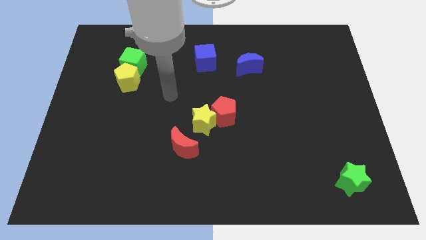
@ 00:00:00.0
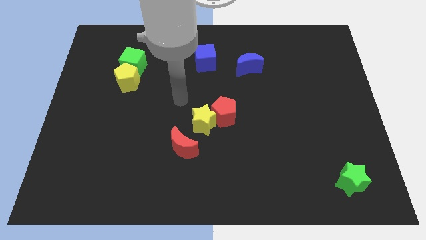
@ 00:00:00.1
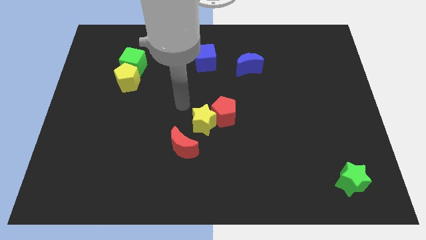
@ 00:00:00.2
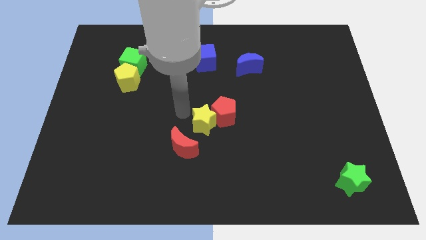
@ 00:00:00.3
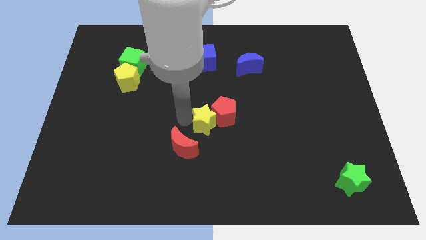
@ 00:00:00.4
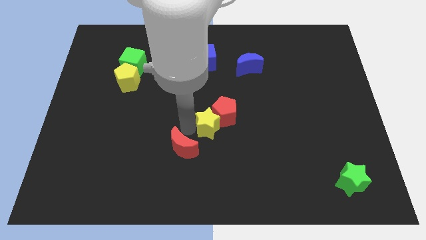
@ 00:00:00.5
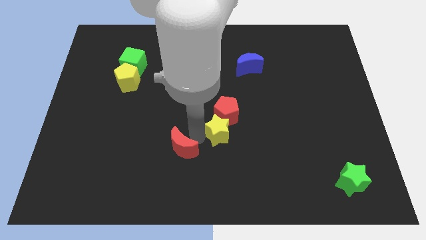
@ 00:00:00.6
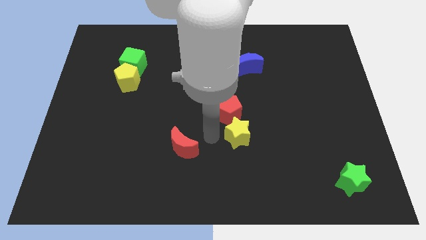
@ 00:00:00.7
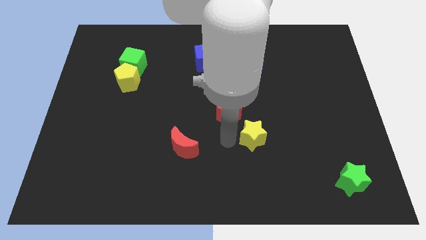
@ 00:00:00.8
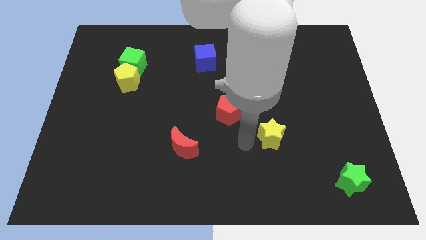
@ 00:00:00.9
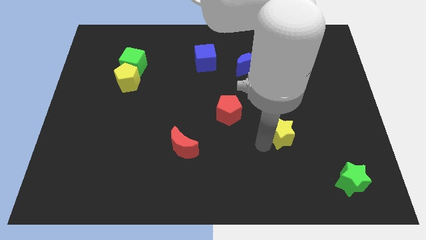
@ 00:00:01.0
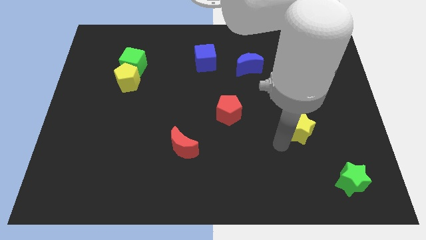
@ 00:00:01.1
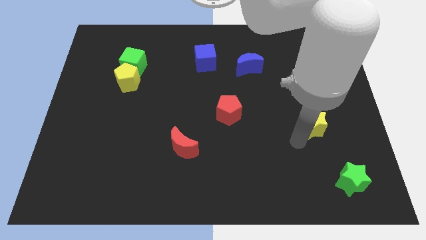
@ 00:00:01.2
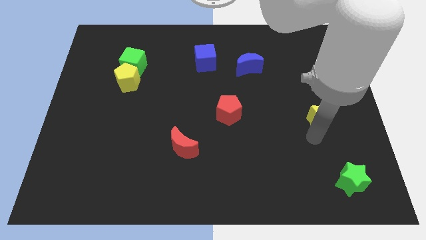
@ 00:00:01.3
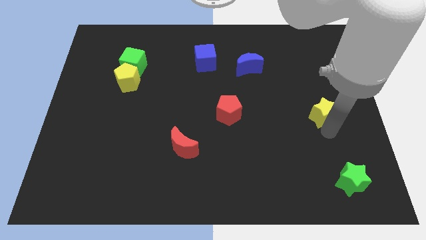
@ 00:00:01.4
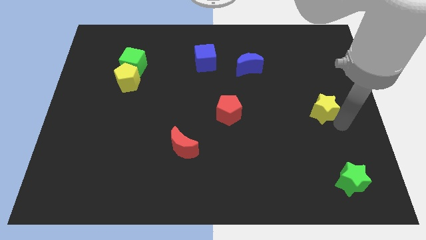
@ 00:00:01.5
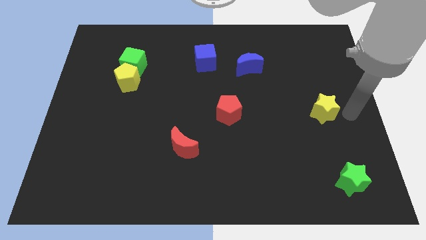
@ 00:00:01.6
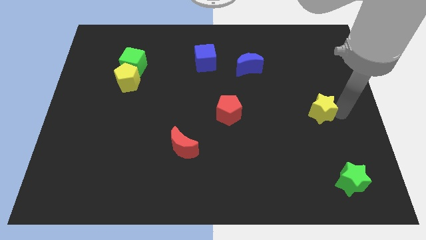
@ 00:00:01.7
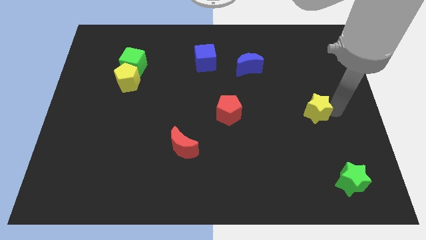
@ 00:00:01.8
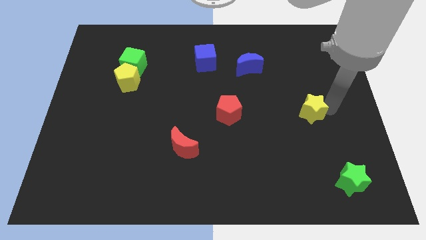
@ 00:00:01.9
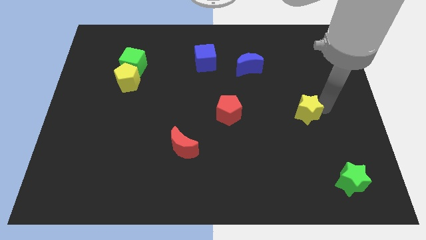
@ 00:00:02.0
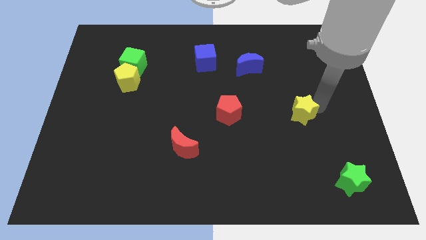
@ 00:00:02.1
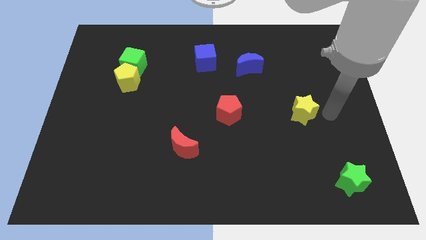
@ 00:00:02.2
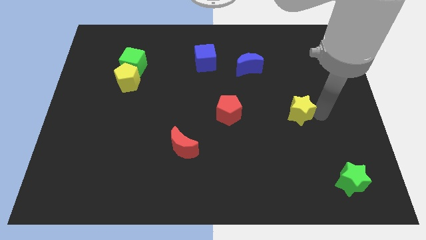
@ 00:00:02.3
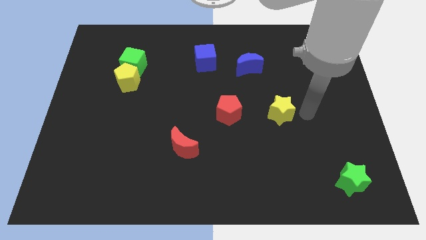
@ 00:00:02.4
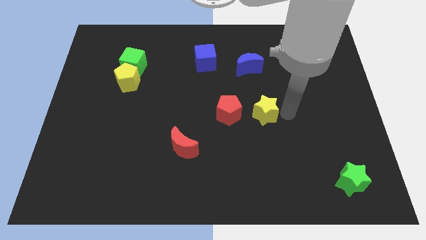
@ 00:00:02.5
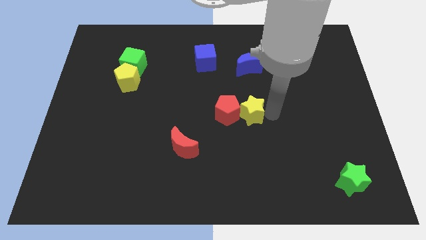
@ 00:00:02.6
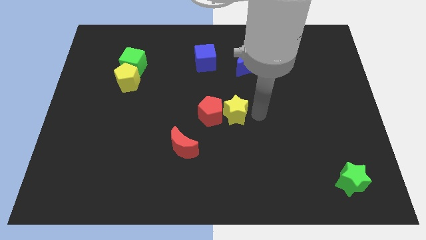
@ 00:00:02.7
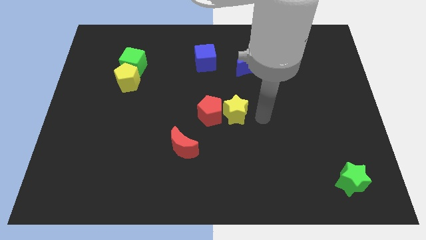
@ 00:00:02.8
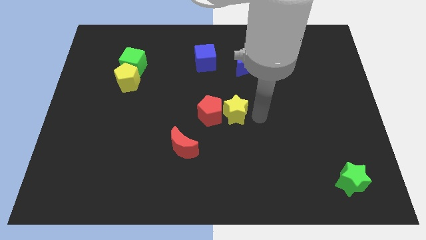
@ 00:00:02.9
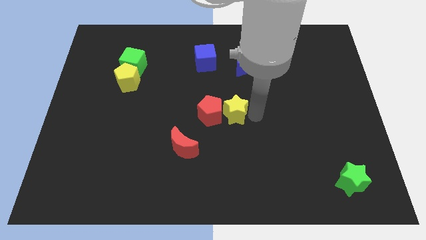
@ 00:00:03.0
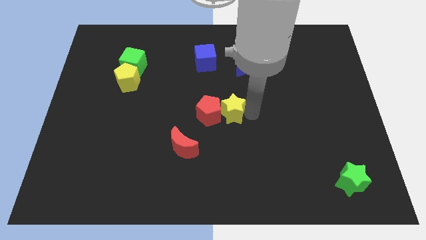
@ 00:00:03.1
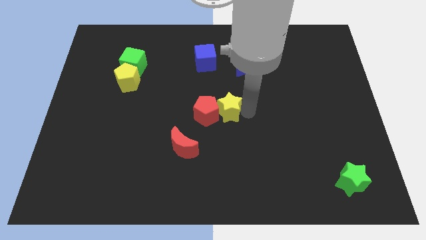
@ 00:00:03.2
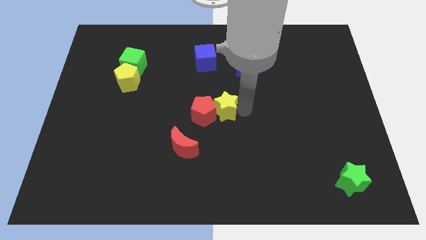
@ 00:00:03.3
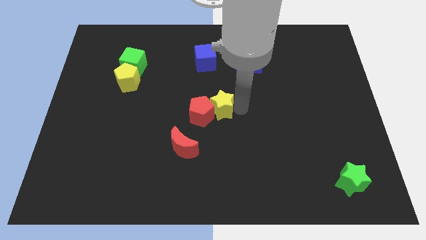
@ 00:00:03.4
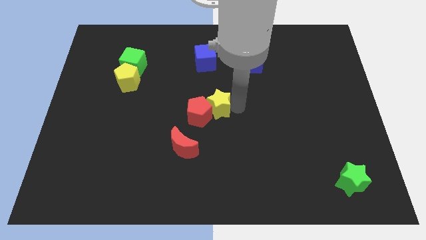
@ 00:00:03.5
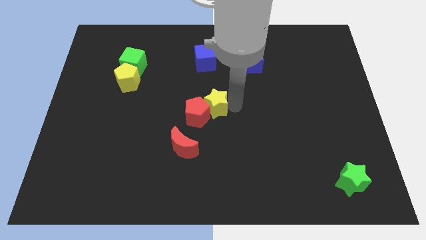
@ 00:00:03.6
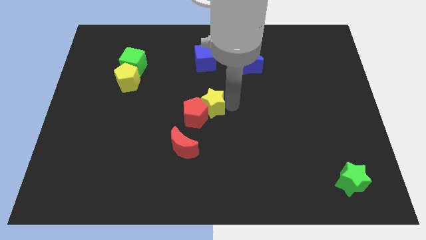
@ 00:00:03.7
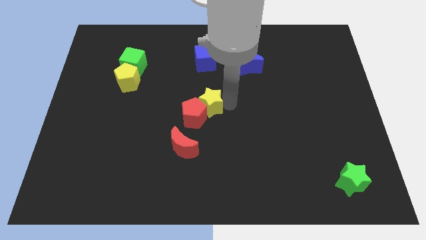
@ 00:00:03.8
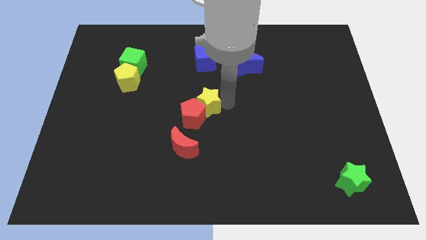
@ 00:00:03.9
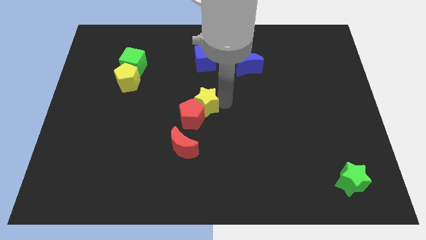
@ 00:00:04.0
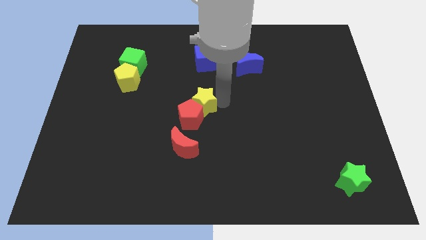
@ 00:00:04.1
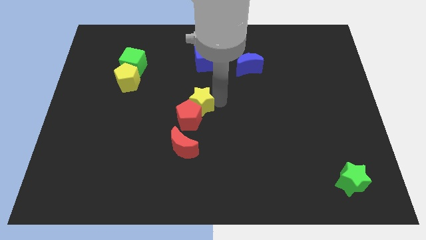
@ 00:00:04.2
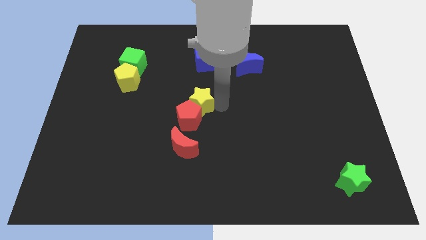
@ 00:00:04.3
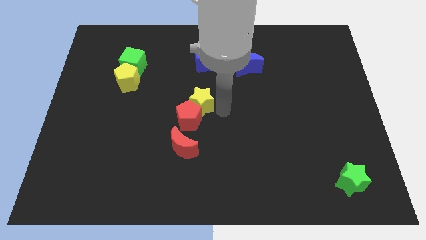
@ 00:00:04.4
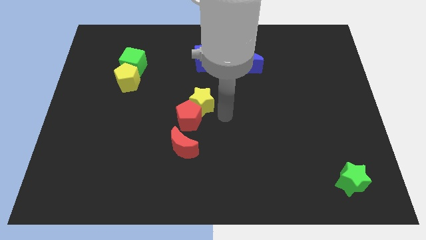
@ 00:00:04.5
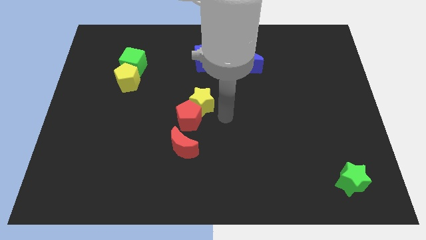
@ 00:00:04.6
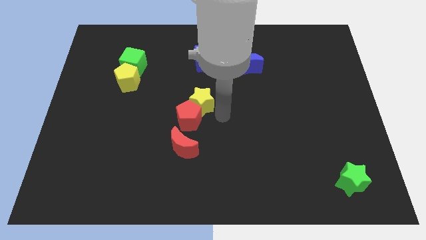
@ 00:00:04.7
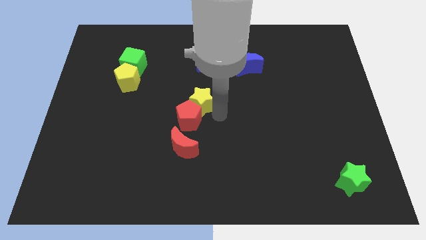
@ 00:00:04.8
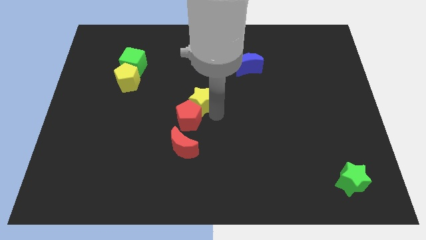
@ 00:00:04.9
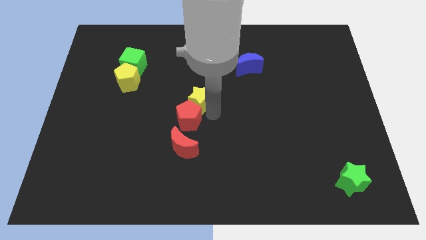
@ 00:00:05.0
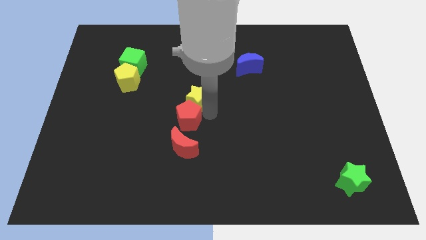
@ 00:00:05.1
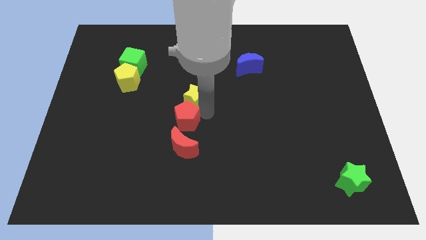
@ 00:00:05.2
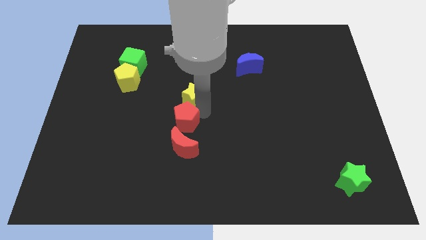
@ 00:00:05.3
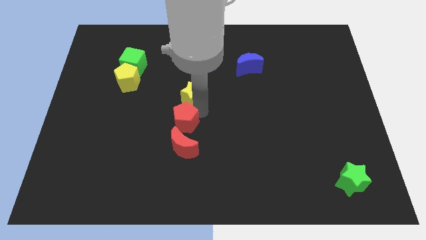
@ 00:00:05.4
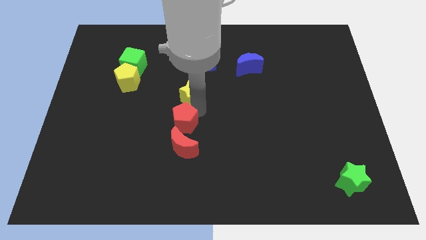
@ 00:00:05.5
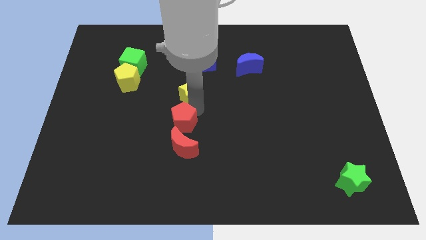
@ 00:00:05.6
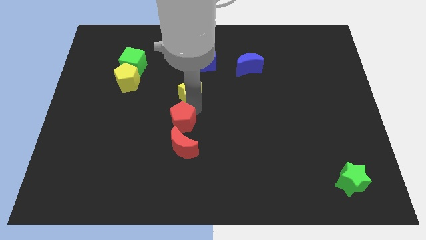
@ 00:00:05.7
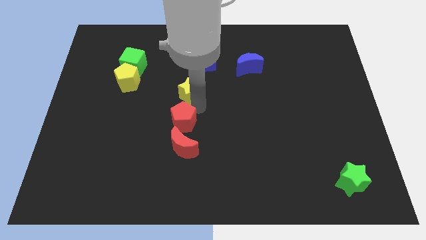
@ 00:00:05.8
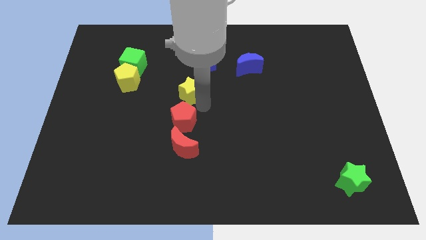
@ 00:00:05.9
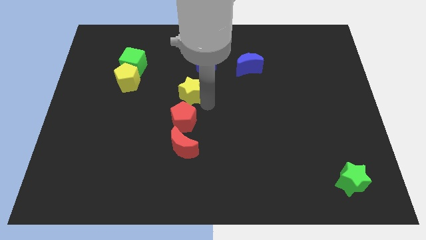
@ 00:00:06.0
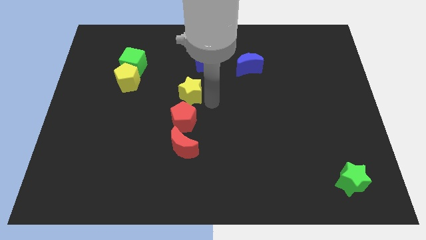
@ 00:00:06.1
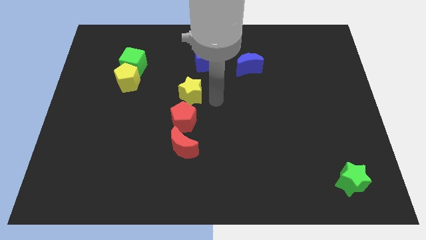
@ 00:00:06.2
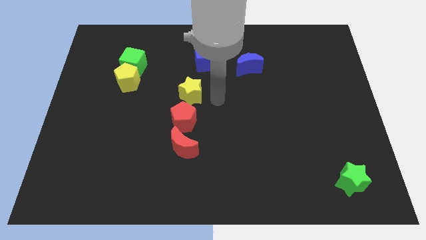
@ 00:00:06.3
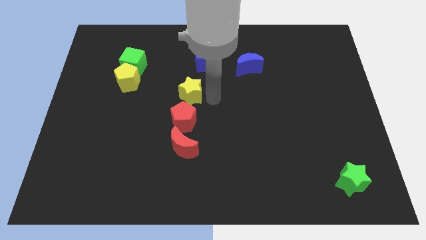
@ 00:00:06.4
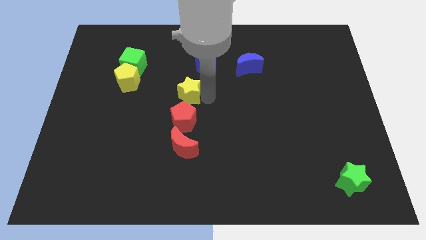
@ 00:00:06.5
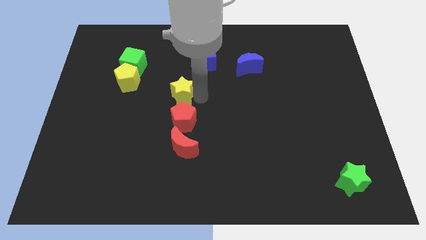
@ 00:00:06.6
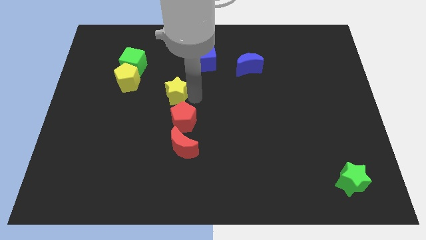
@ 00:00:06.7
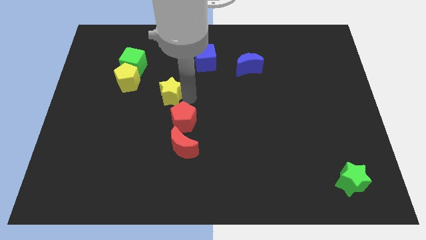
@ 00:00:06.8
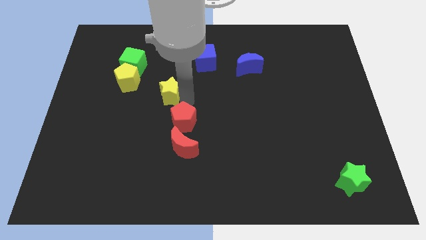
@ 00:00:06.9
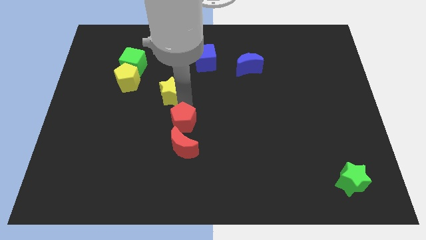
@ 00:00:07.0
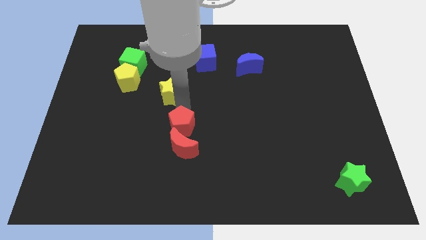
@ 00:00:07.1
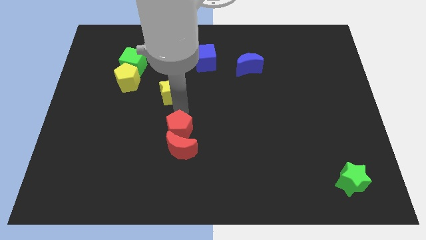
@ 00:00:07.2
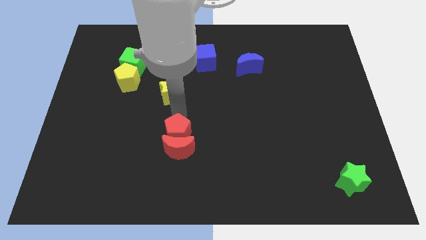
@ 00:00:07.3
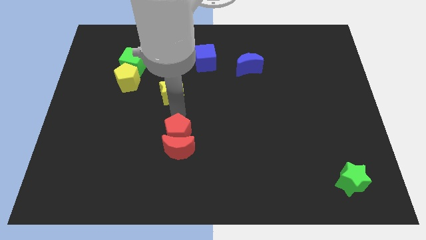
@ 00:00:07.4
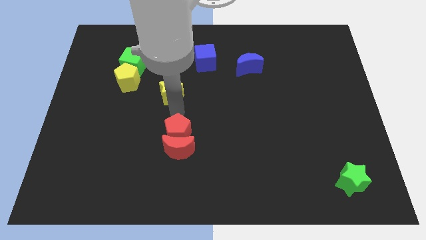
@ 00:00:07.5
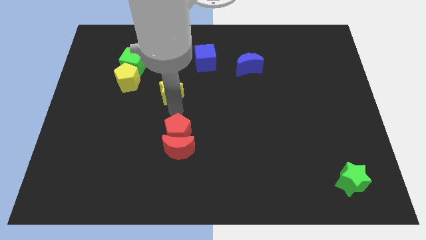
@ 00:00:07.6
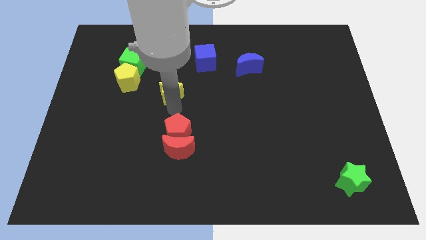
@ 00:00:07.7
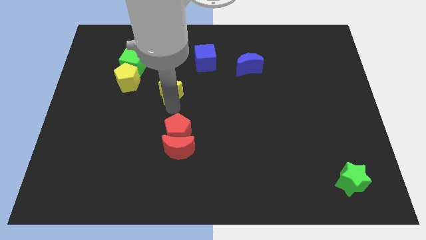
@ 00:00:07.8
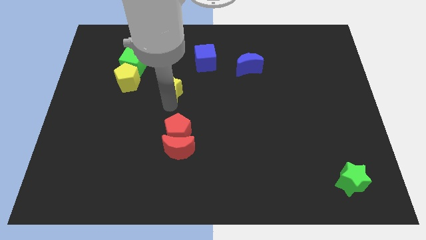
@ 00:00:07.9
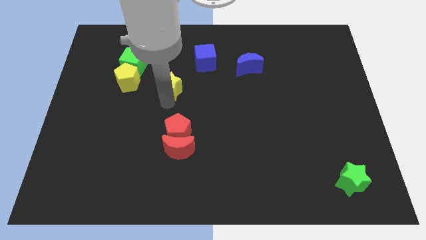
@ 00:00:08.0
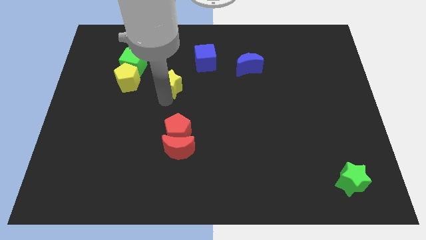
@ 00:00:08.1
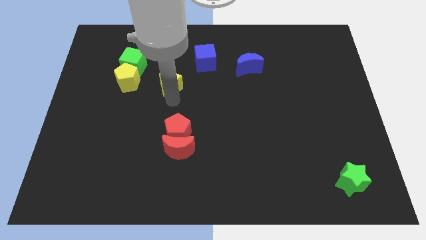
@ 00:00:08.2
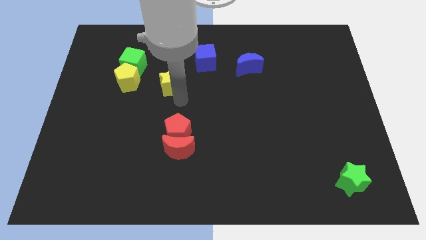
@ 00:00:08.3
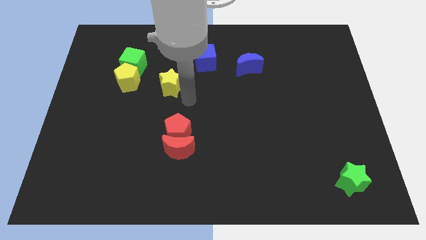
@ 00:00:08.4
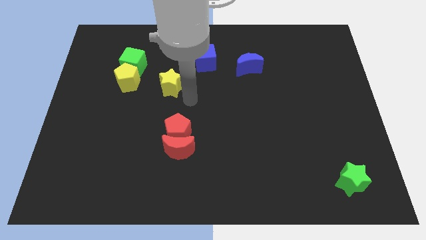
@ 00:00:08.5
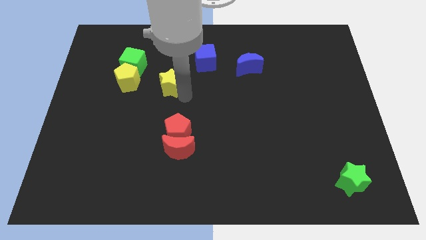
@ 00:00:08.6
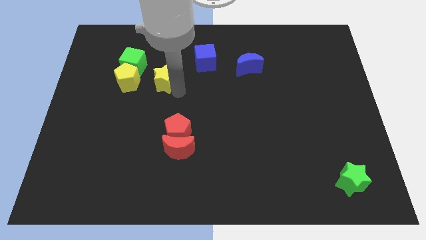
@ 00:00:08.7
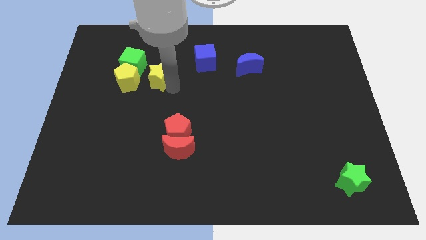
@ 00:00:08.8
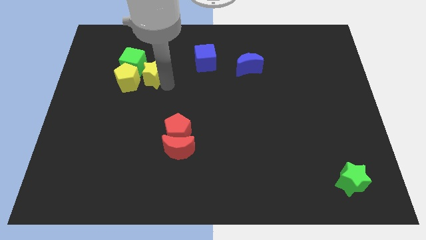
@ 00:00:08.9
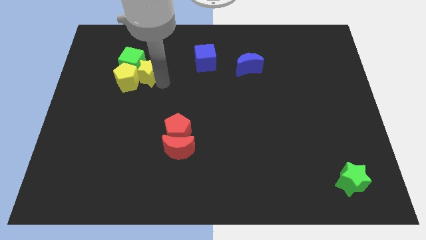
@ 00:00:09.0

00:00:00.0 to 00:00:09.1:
slide the yellow star to the green cube
